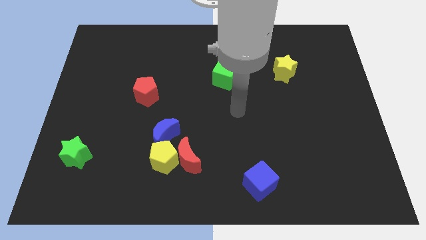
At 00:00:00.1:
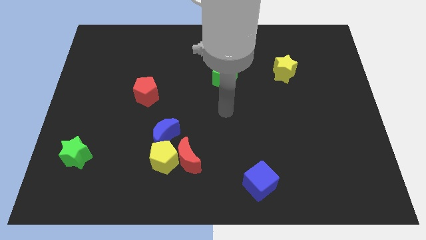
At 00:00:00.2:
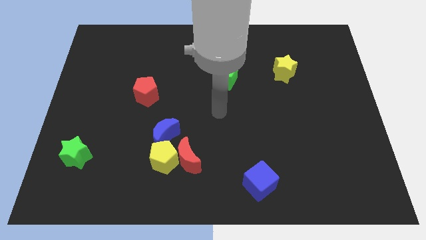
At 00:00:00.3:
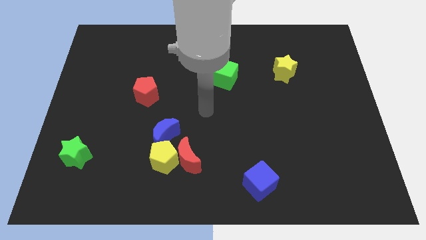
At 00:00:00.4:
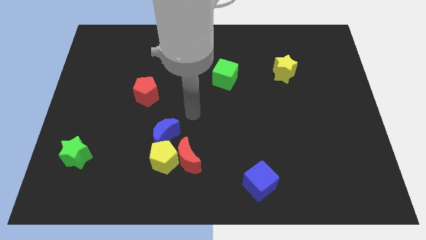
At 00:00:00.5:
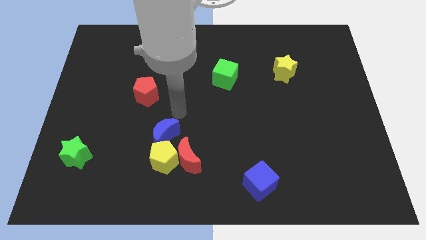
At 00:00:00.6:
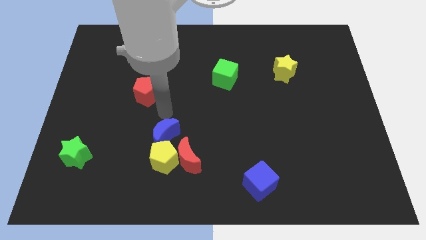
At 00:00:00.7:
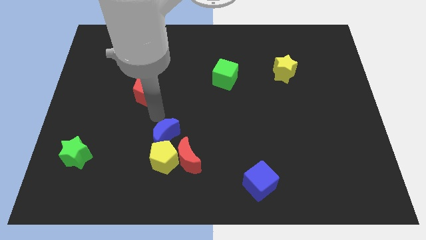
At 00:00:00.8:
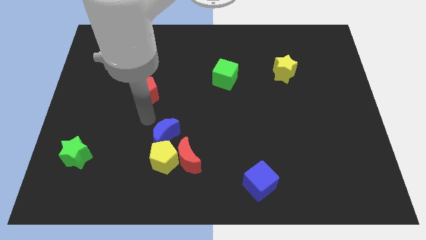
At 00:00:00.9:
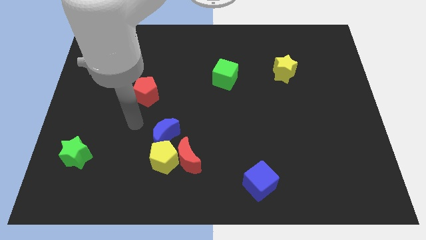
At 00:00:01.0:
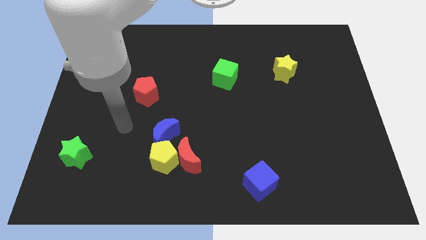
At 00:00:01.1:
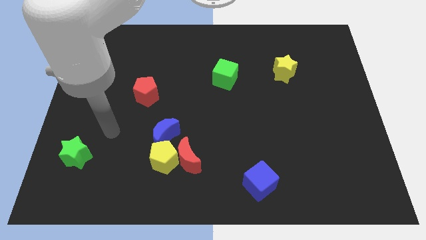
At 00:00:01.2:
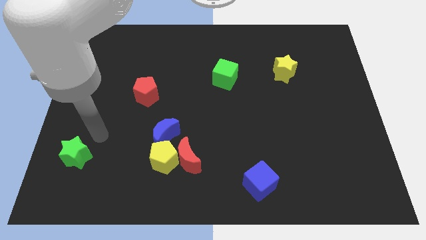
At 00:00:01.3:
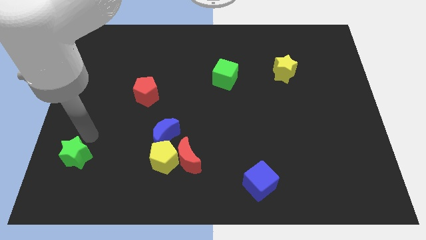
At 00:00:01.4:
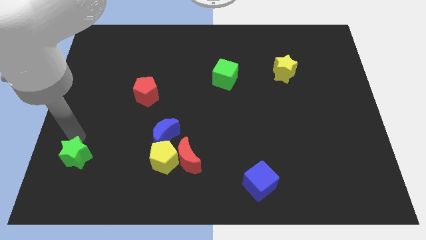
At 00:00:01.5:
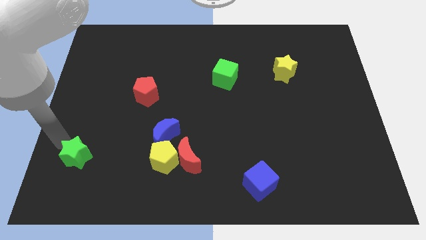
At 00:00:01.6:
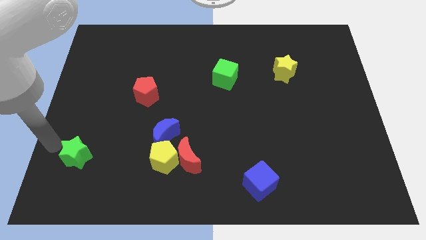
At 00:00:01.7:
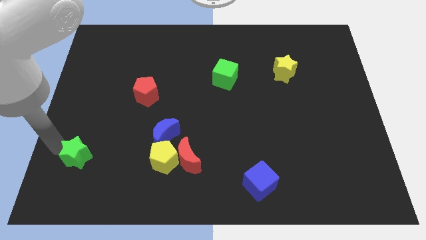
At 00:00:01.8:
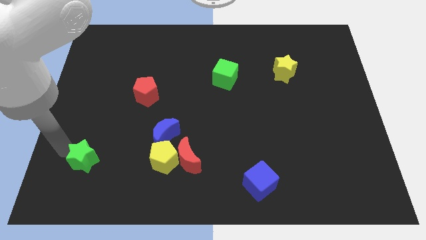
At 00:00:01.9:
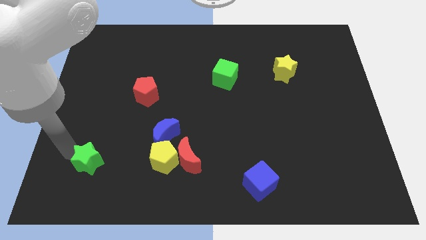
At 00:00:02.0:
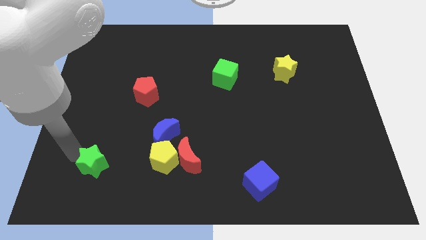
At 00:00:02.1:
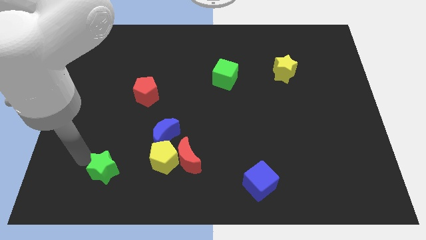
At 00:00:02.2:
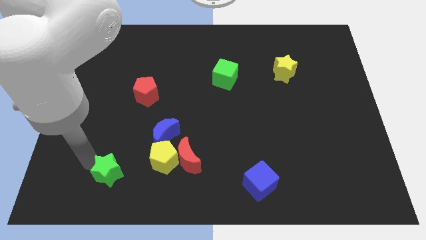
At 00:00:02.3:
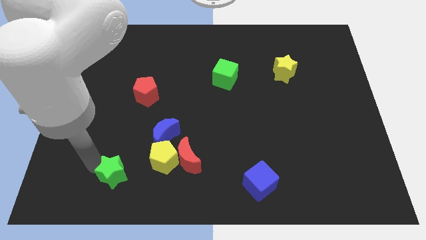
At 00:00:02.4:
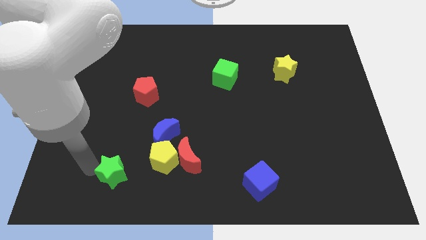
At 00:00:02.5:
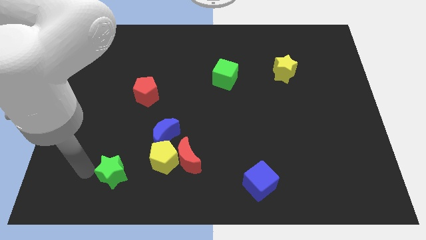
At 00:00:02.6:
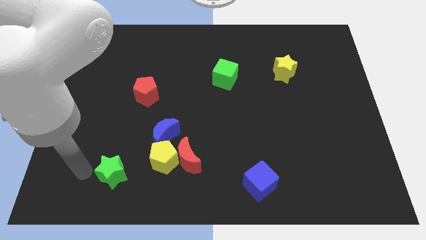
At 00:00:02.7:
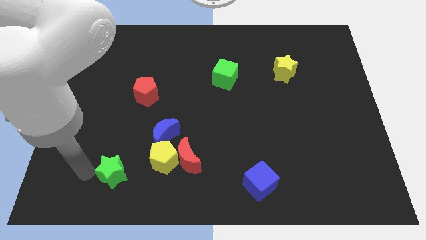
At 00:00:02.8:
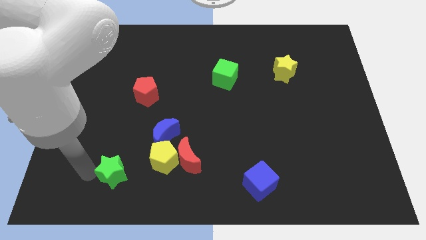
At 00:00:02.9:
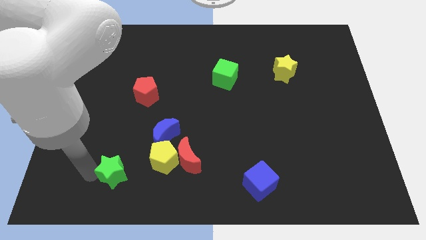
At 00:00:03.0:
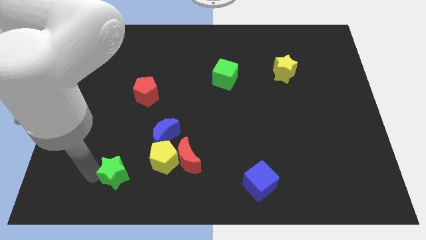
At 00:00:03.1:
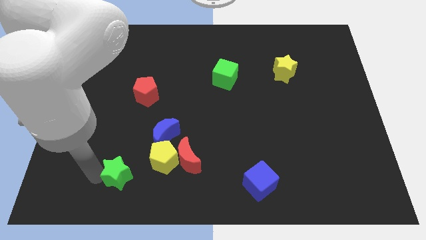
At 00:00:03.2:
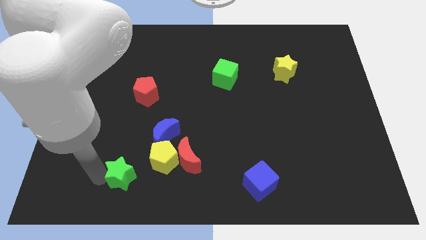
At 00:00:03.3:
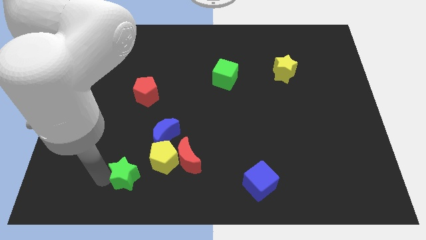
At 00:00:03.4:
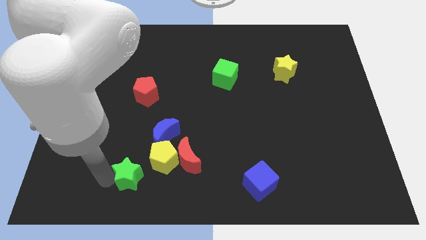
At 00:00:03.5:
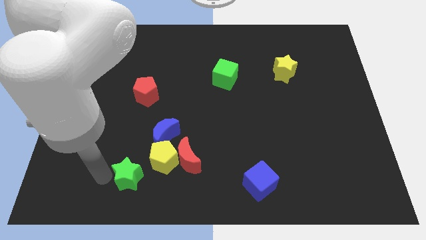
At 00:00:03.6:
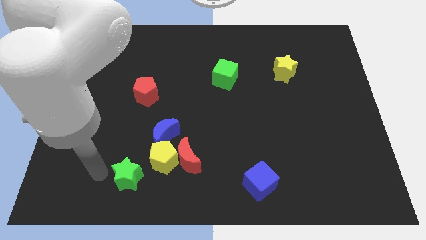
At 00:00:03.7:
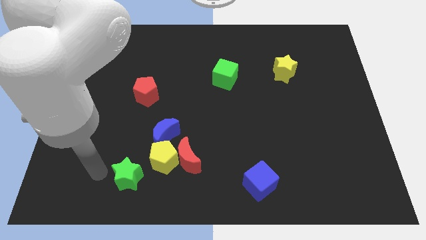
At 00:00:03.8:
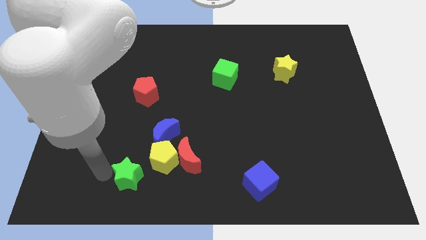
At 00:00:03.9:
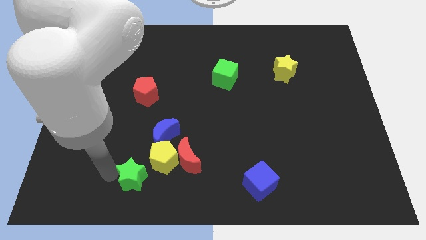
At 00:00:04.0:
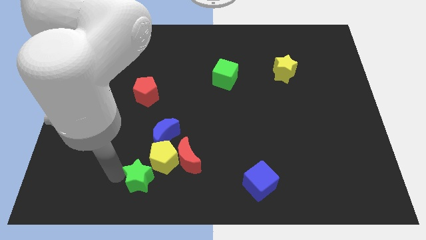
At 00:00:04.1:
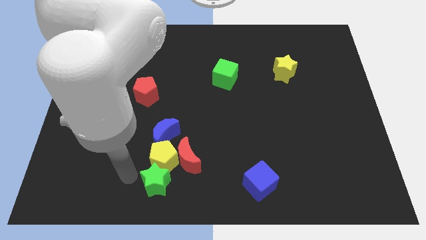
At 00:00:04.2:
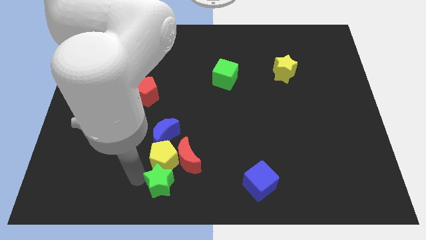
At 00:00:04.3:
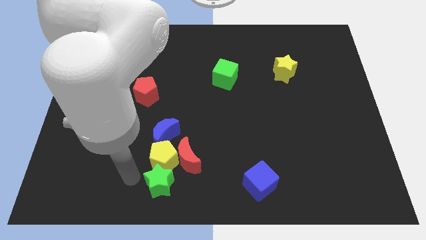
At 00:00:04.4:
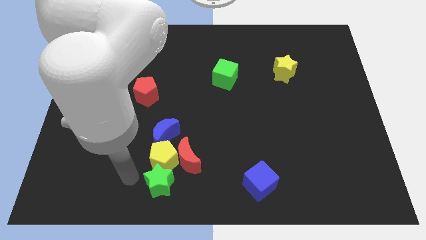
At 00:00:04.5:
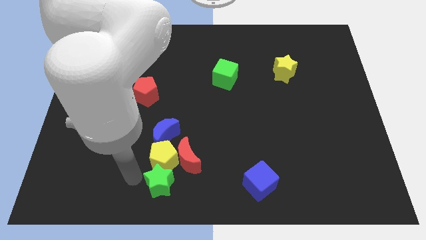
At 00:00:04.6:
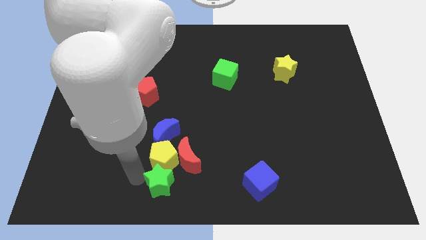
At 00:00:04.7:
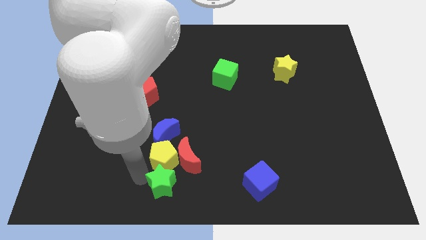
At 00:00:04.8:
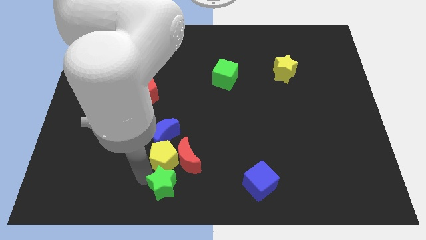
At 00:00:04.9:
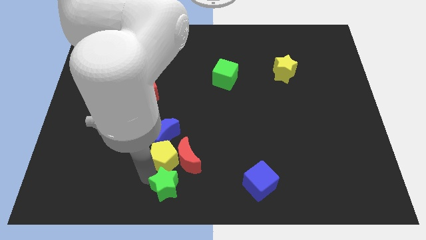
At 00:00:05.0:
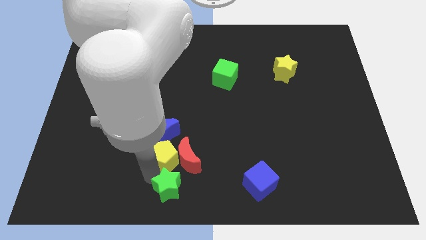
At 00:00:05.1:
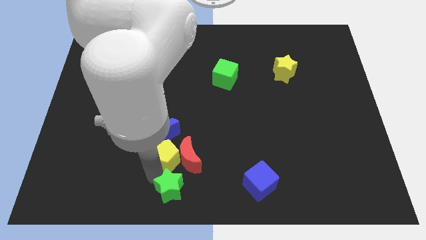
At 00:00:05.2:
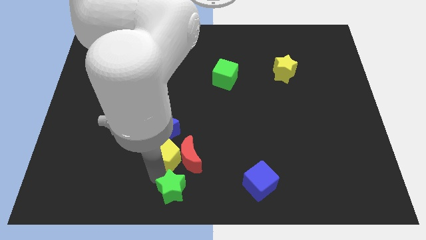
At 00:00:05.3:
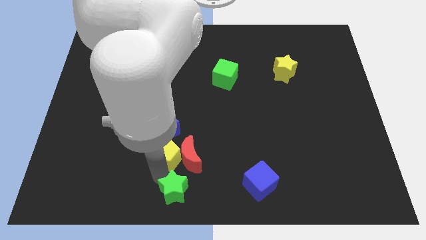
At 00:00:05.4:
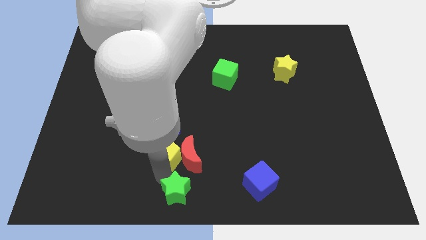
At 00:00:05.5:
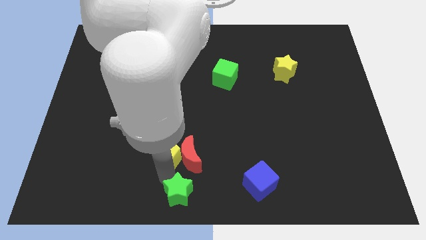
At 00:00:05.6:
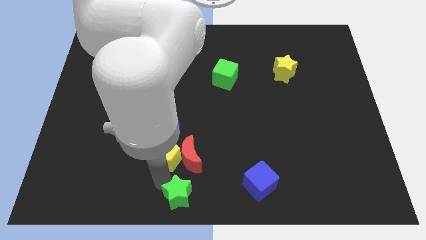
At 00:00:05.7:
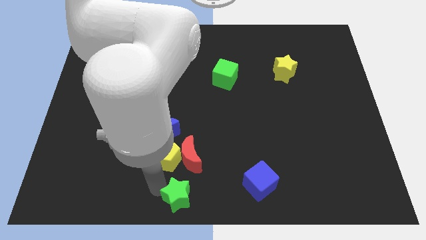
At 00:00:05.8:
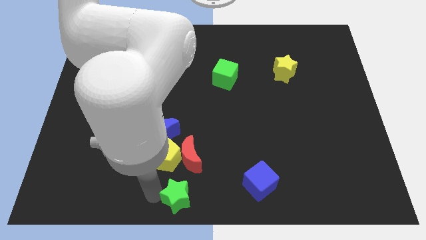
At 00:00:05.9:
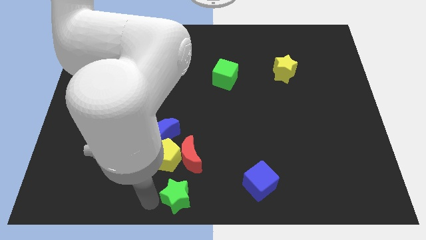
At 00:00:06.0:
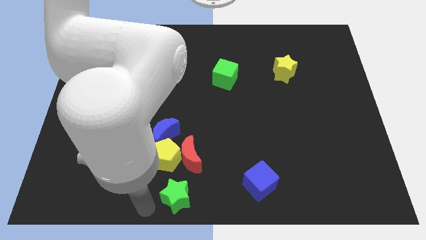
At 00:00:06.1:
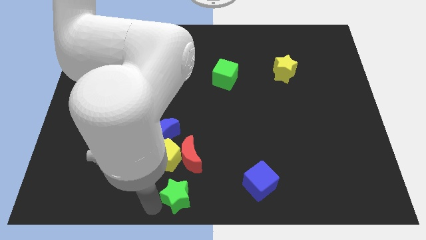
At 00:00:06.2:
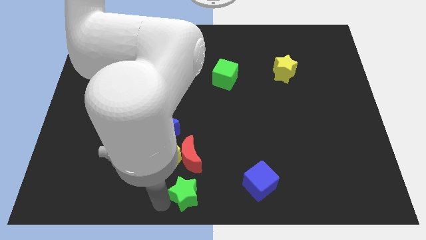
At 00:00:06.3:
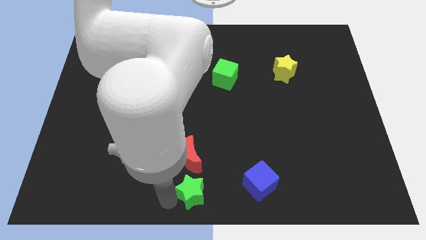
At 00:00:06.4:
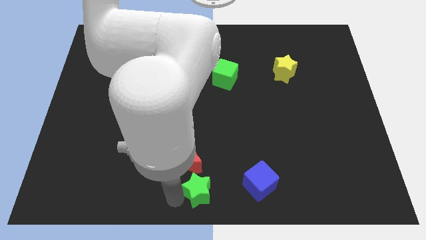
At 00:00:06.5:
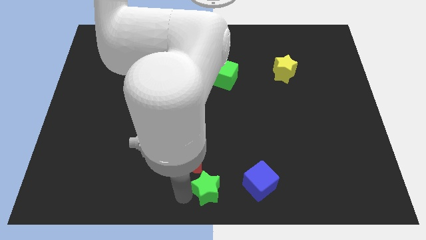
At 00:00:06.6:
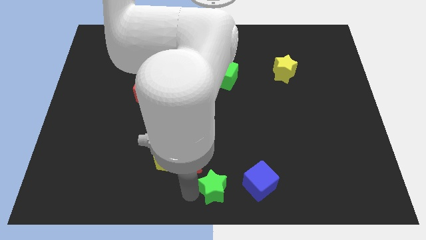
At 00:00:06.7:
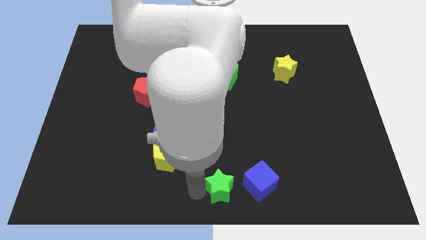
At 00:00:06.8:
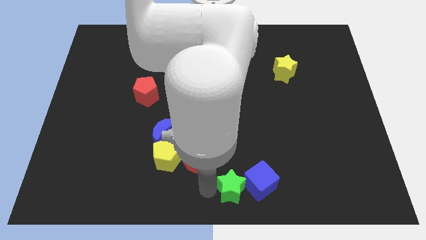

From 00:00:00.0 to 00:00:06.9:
push the green star towards the blue cube

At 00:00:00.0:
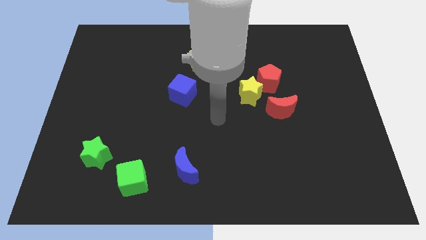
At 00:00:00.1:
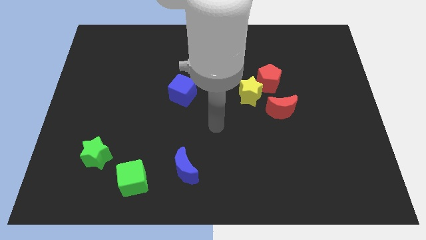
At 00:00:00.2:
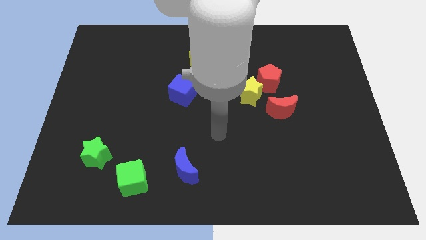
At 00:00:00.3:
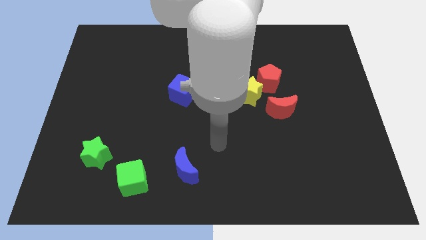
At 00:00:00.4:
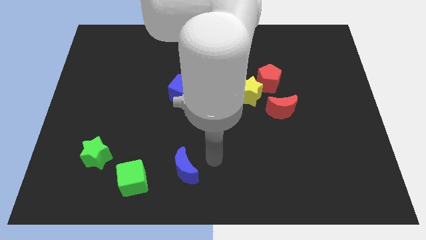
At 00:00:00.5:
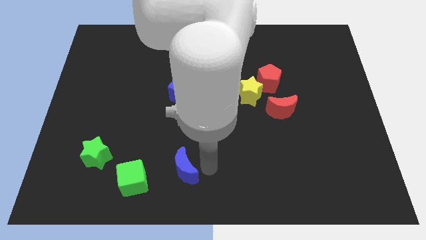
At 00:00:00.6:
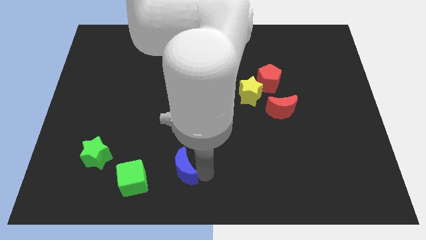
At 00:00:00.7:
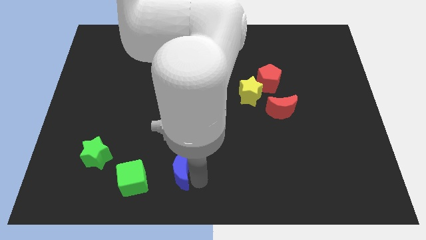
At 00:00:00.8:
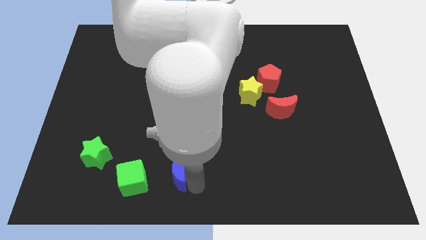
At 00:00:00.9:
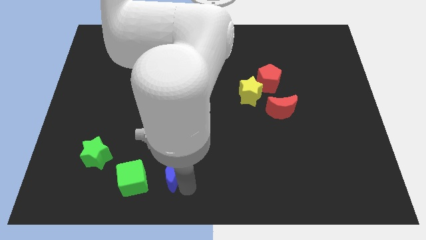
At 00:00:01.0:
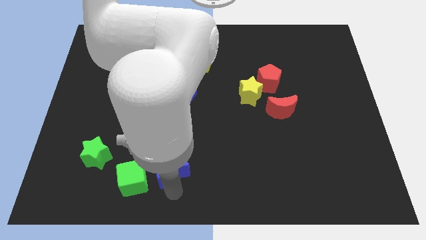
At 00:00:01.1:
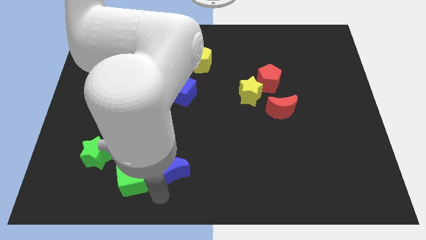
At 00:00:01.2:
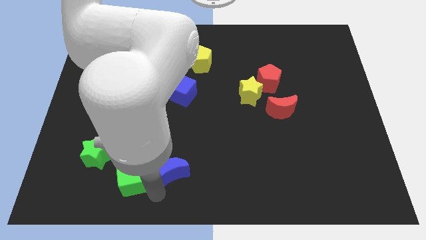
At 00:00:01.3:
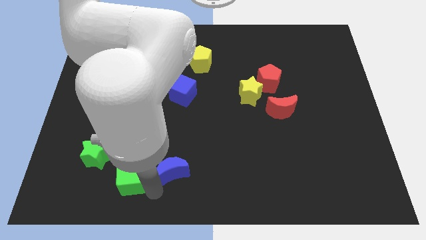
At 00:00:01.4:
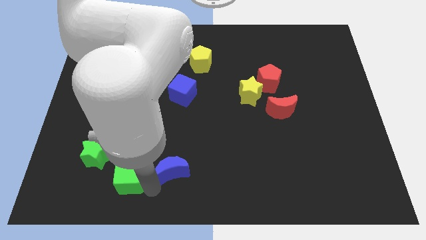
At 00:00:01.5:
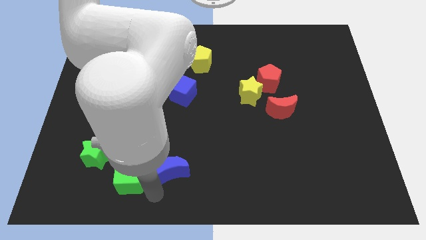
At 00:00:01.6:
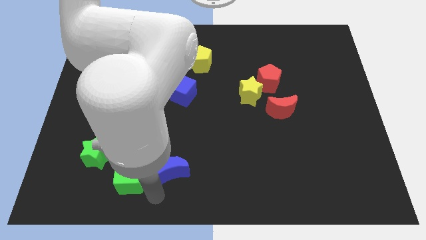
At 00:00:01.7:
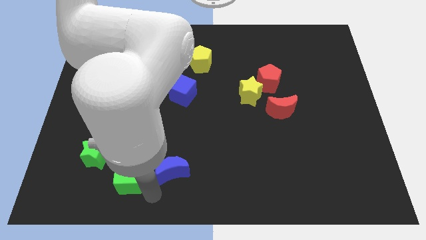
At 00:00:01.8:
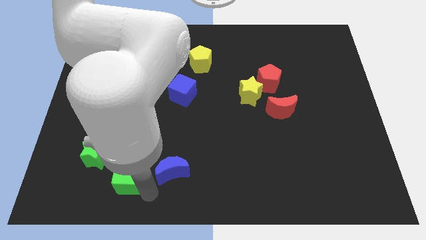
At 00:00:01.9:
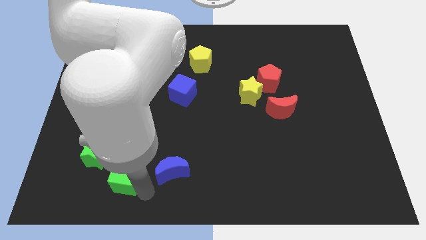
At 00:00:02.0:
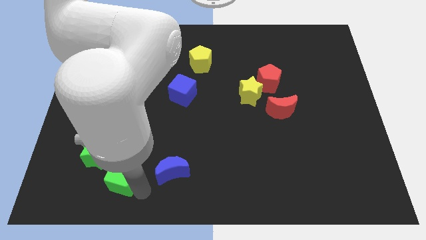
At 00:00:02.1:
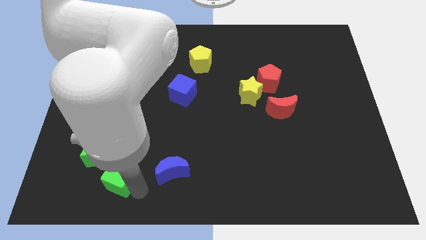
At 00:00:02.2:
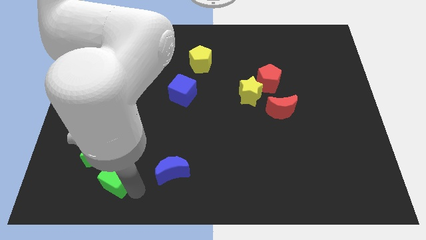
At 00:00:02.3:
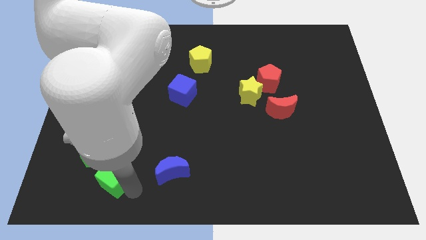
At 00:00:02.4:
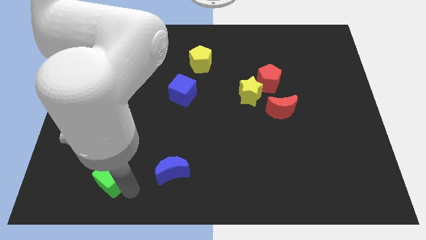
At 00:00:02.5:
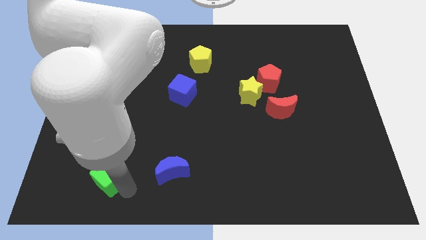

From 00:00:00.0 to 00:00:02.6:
move the green cube towards the green star
